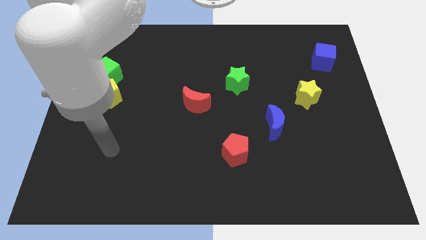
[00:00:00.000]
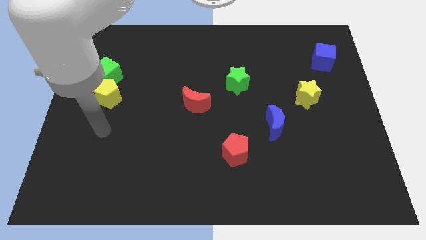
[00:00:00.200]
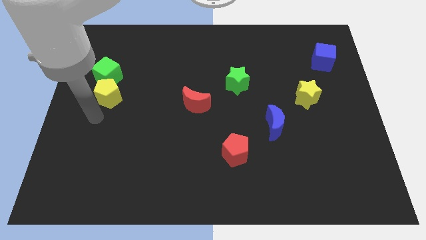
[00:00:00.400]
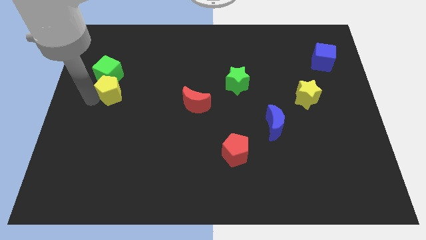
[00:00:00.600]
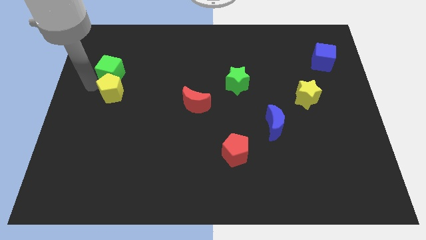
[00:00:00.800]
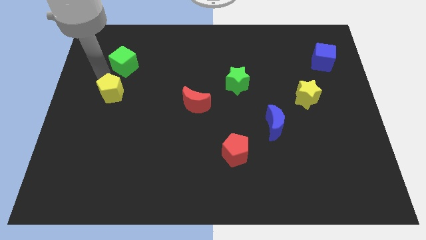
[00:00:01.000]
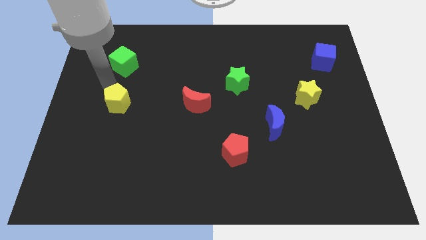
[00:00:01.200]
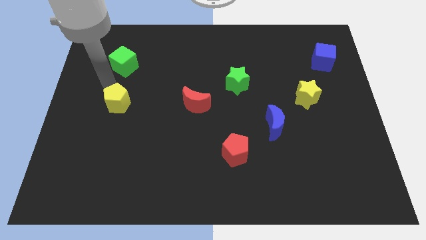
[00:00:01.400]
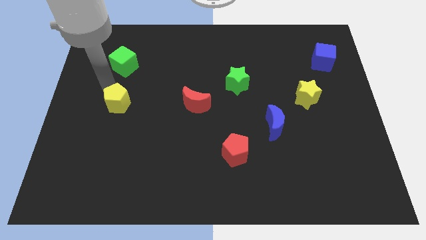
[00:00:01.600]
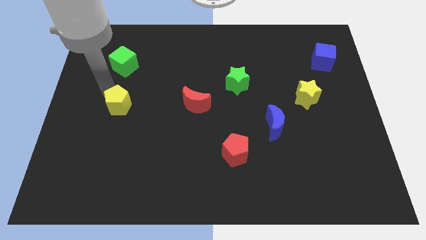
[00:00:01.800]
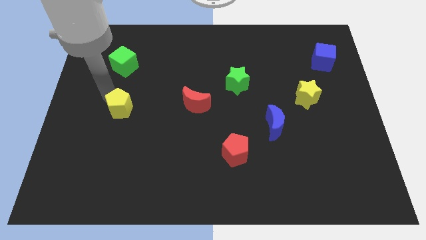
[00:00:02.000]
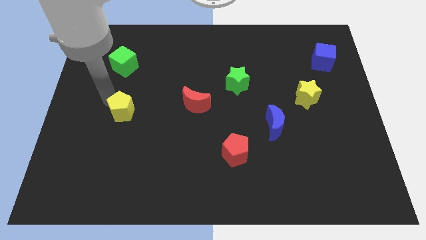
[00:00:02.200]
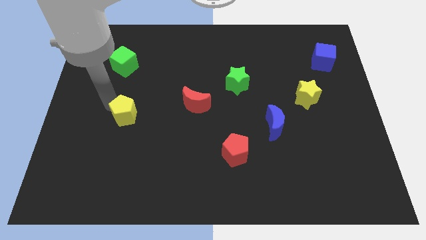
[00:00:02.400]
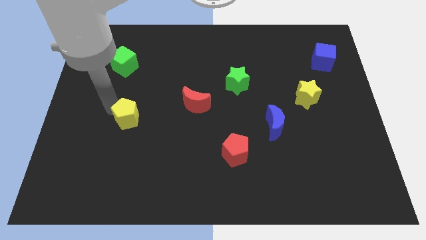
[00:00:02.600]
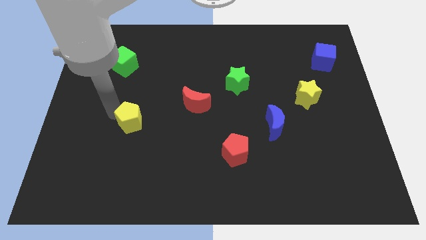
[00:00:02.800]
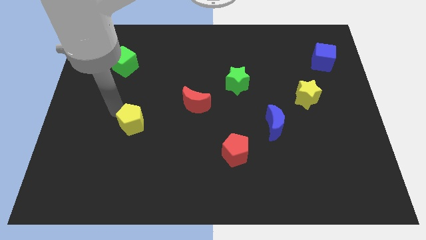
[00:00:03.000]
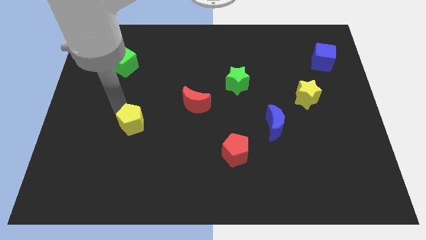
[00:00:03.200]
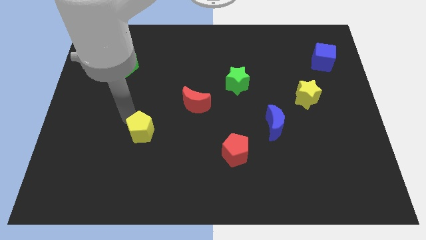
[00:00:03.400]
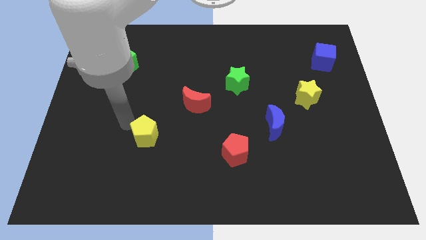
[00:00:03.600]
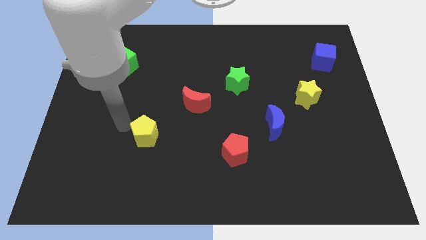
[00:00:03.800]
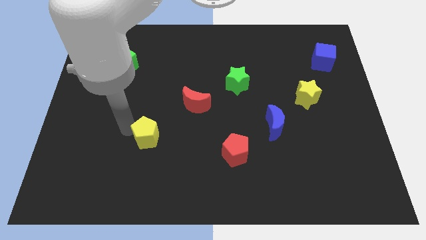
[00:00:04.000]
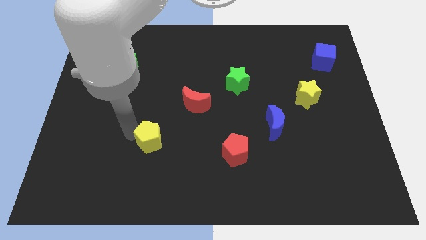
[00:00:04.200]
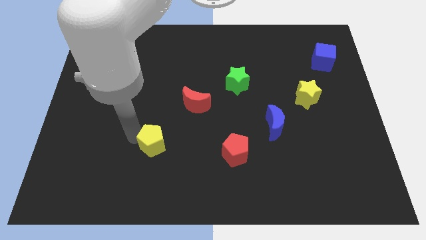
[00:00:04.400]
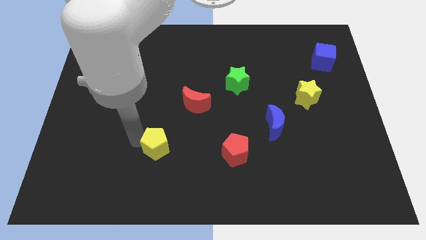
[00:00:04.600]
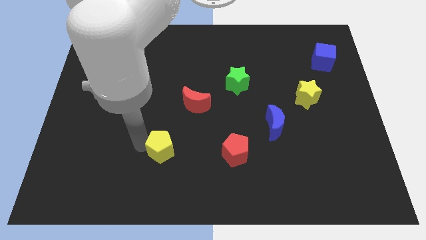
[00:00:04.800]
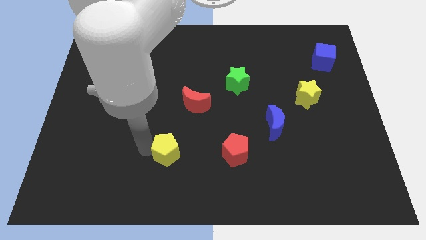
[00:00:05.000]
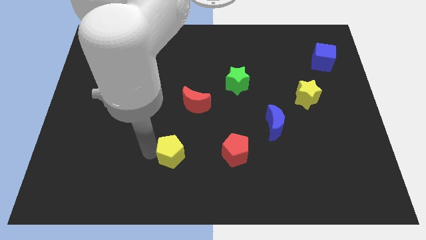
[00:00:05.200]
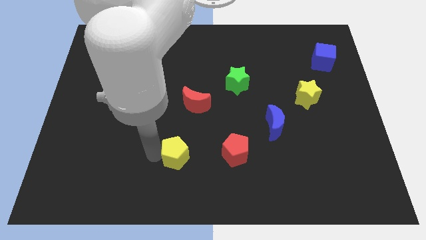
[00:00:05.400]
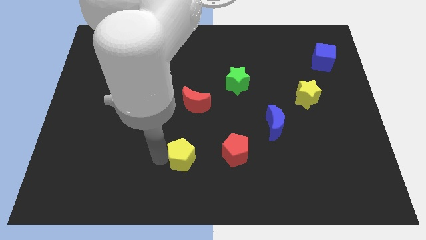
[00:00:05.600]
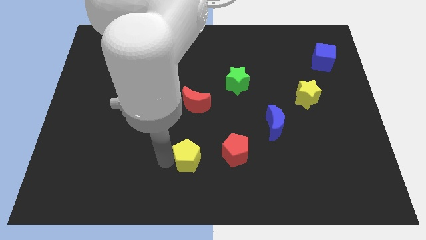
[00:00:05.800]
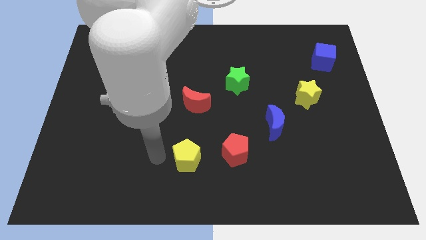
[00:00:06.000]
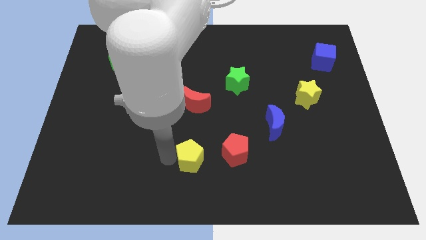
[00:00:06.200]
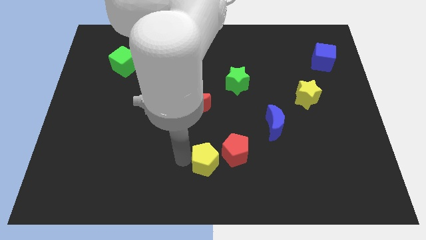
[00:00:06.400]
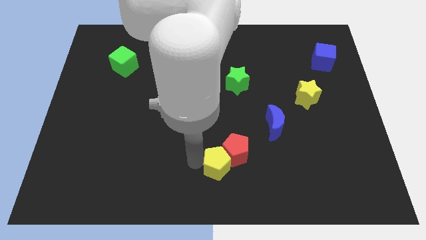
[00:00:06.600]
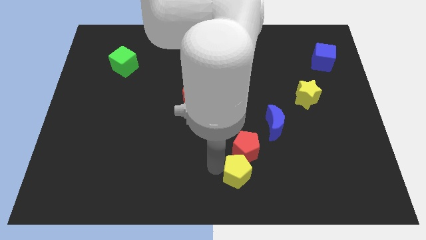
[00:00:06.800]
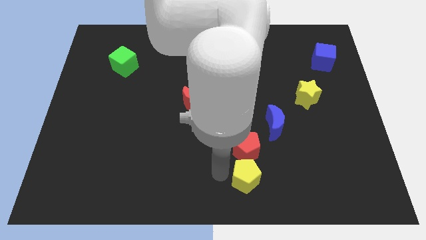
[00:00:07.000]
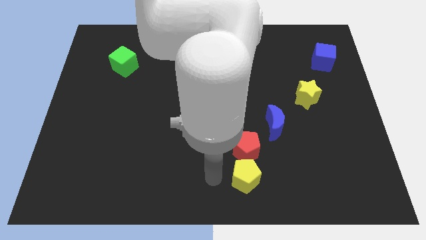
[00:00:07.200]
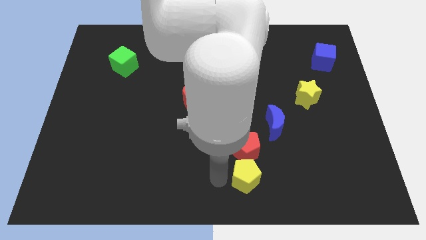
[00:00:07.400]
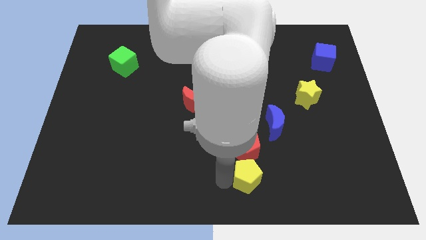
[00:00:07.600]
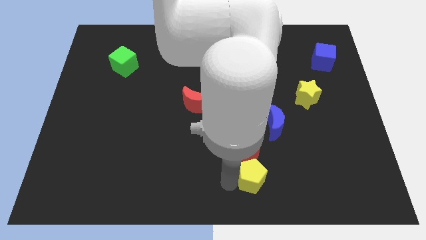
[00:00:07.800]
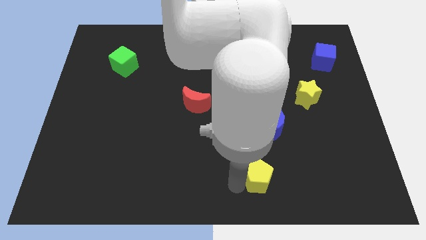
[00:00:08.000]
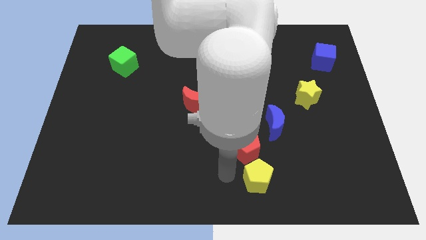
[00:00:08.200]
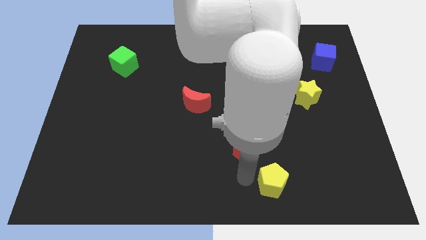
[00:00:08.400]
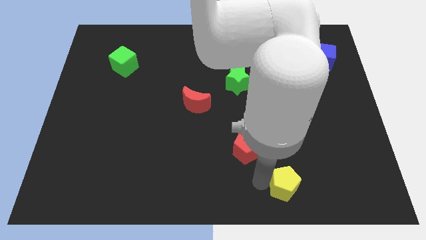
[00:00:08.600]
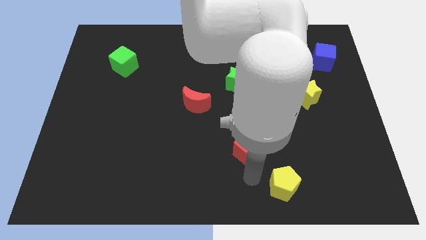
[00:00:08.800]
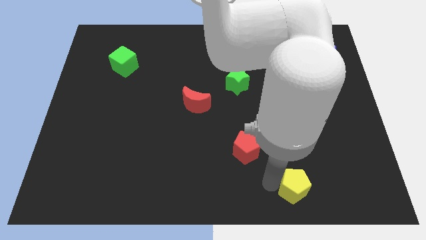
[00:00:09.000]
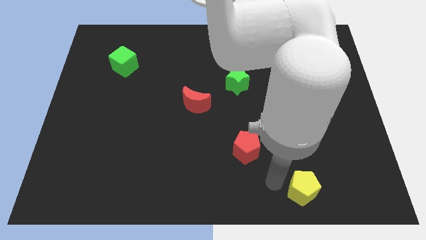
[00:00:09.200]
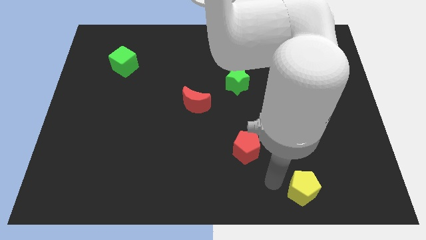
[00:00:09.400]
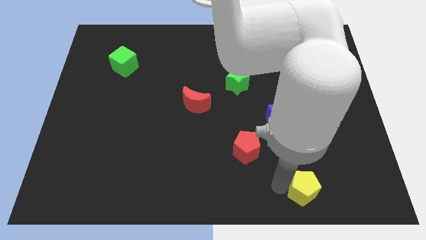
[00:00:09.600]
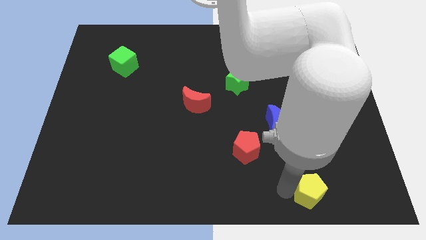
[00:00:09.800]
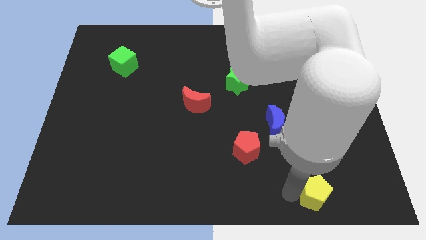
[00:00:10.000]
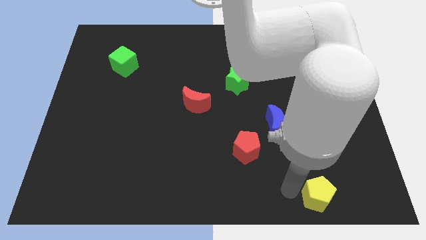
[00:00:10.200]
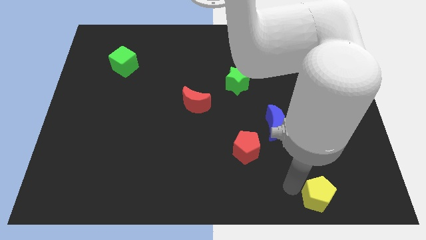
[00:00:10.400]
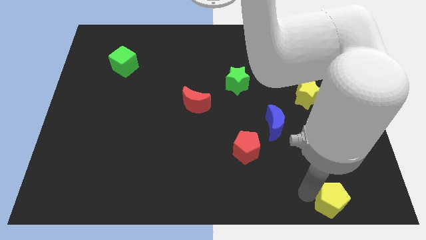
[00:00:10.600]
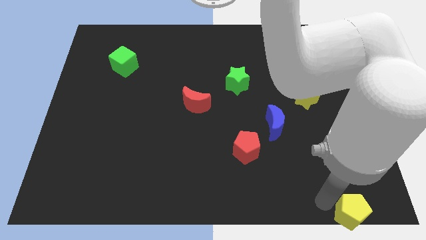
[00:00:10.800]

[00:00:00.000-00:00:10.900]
put the yellow pentagon to the lower right corner

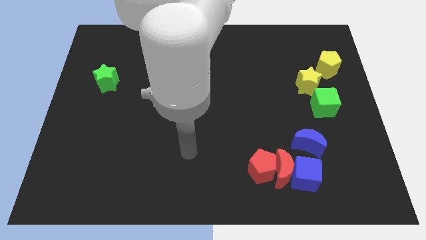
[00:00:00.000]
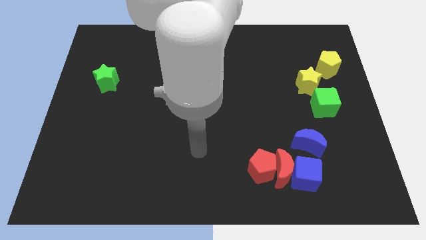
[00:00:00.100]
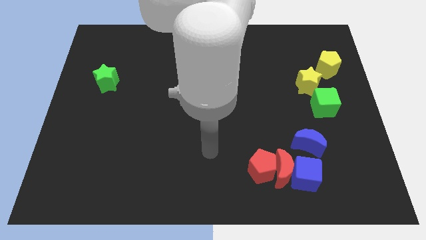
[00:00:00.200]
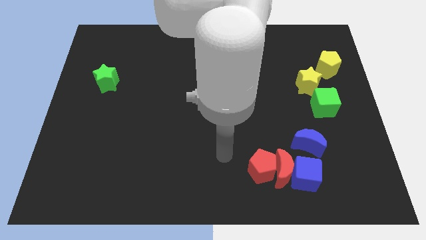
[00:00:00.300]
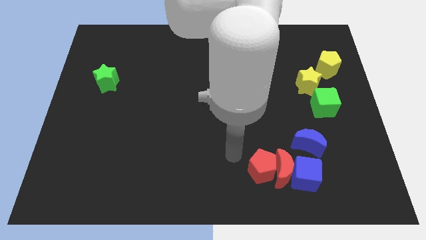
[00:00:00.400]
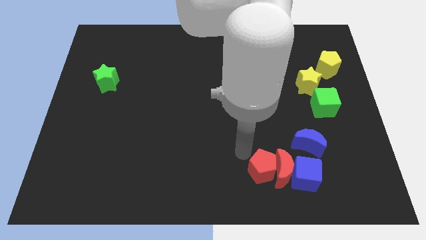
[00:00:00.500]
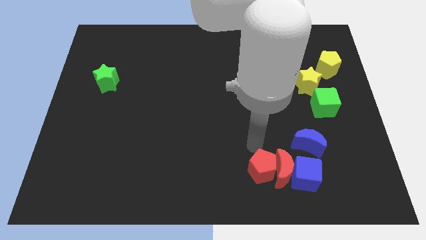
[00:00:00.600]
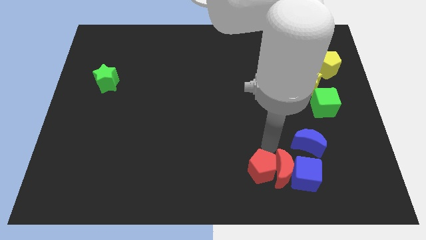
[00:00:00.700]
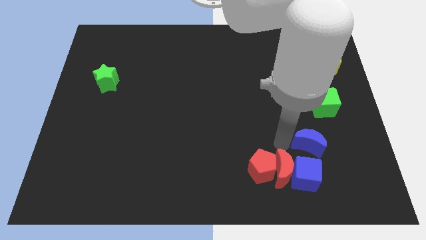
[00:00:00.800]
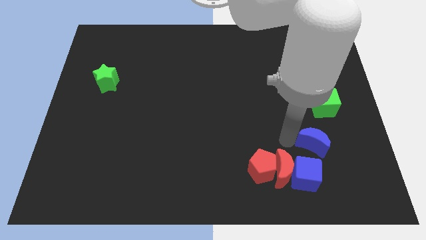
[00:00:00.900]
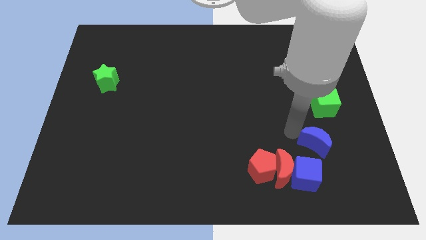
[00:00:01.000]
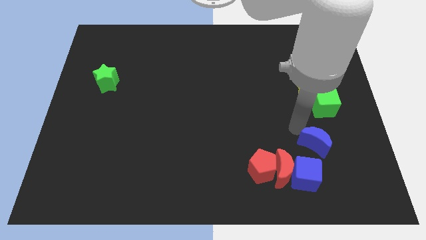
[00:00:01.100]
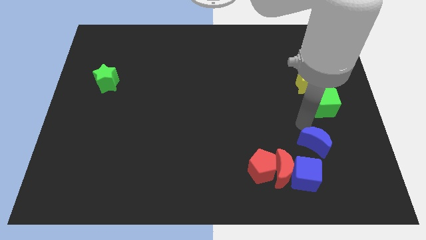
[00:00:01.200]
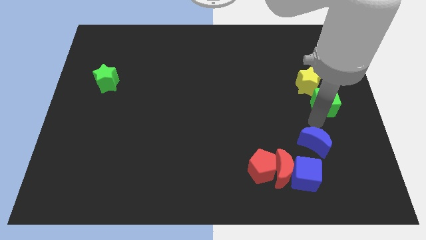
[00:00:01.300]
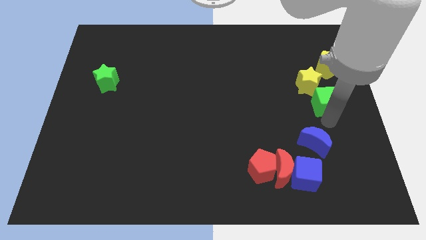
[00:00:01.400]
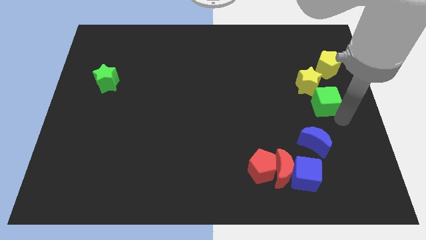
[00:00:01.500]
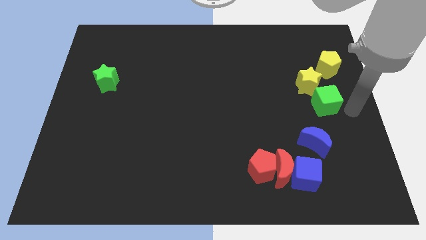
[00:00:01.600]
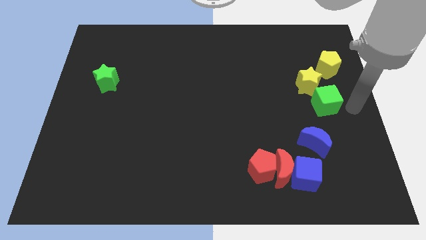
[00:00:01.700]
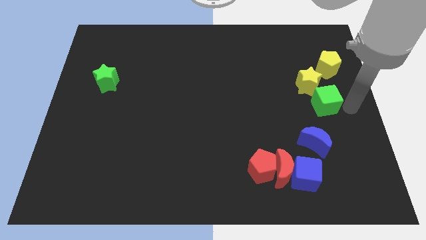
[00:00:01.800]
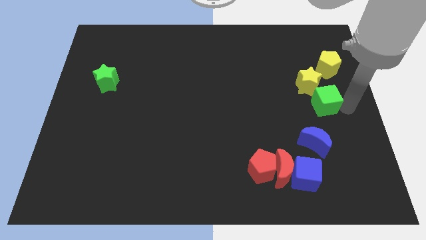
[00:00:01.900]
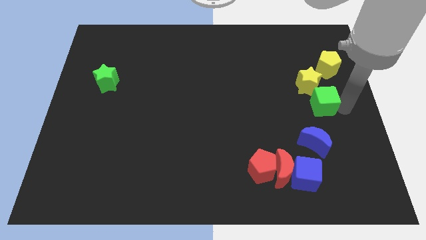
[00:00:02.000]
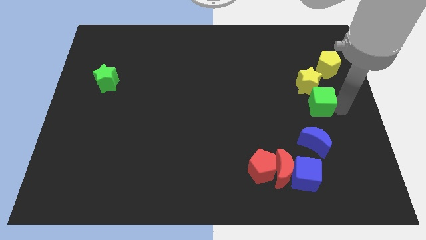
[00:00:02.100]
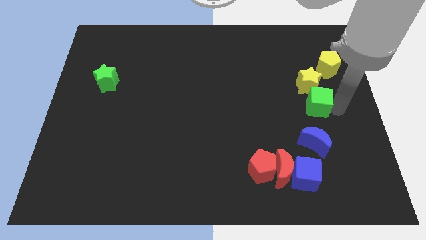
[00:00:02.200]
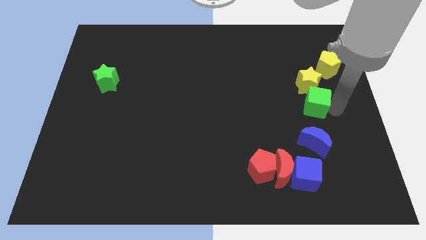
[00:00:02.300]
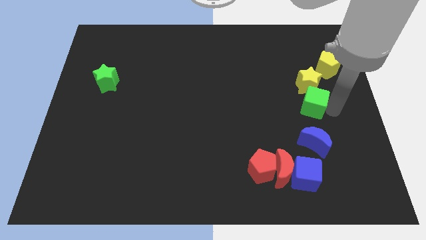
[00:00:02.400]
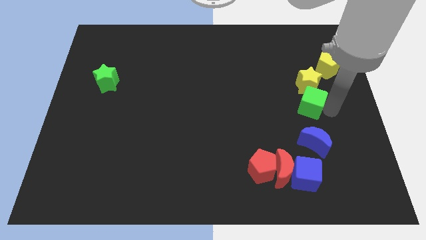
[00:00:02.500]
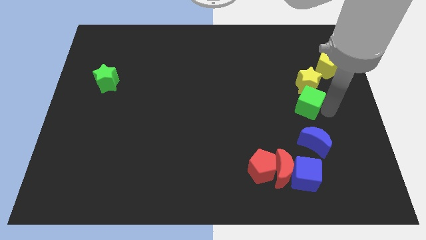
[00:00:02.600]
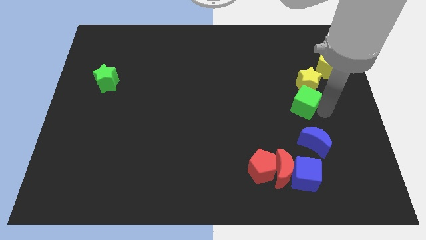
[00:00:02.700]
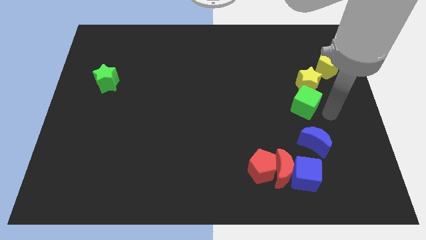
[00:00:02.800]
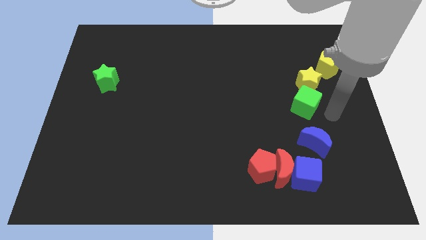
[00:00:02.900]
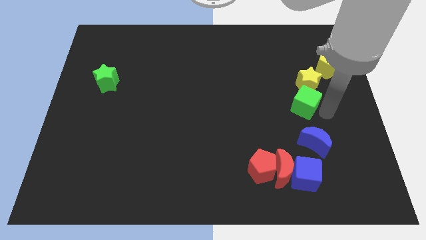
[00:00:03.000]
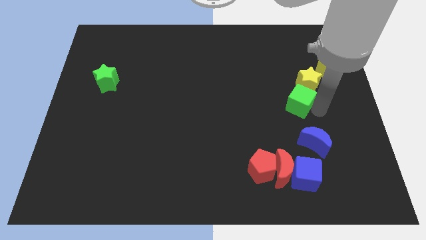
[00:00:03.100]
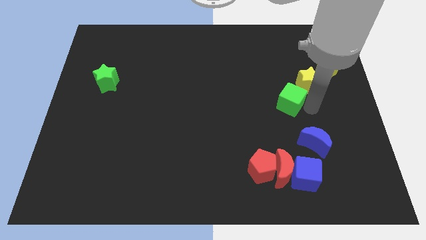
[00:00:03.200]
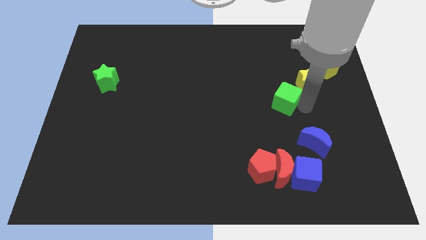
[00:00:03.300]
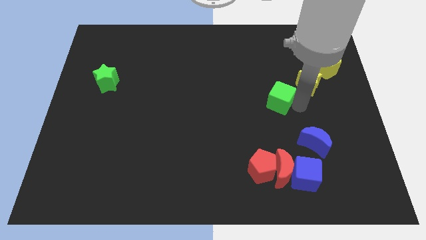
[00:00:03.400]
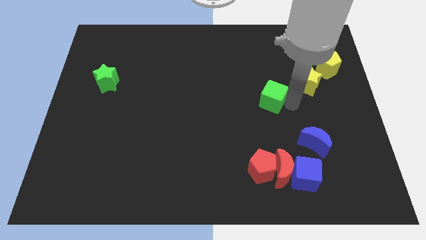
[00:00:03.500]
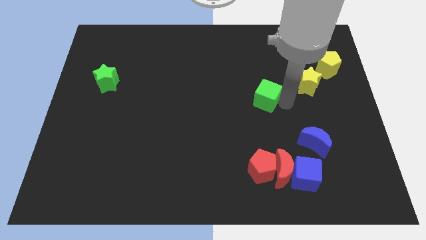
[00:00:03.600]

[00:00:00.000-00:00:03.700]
put the green cube to the middle of the board
